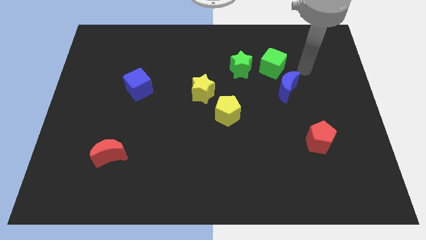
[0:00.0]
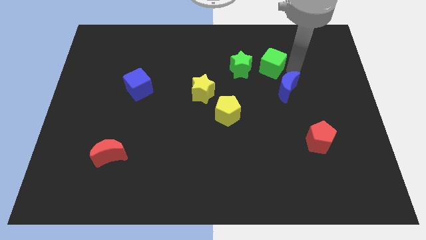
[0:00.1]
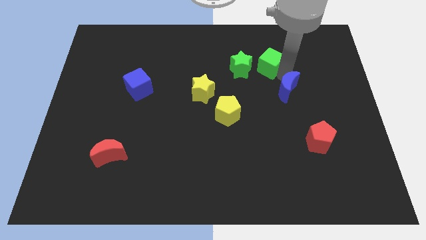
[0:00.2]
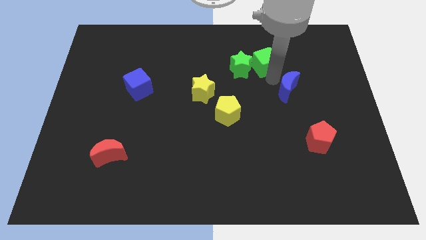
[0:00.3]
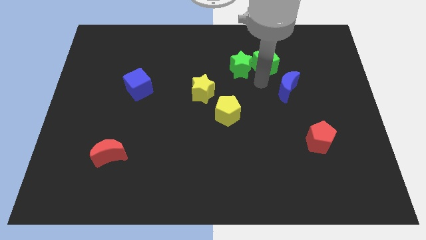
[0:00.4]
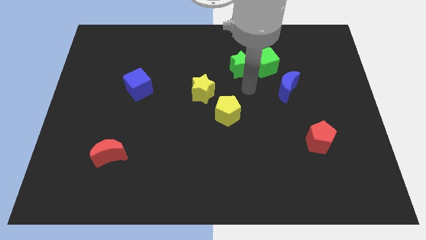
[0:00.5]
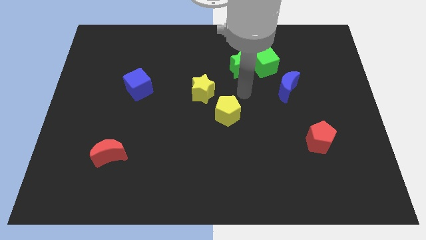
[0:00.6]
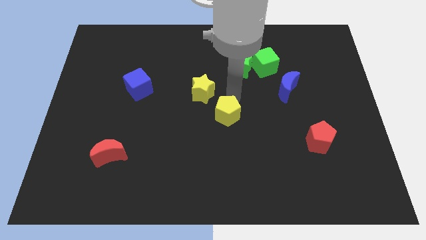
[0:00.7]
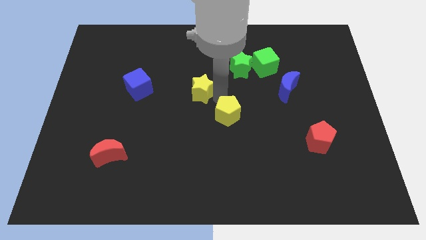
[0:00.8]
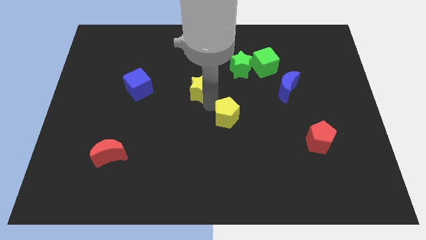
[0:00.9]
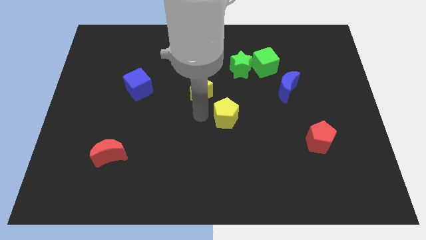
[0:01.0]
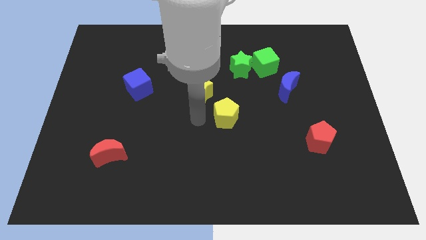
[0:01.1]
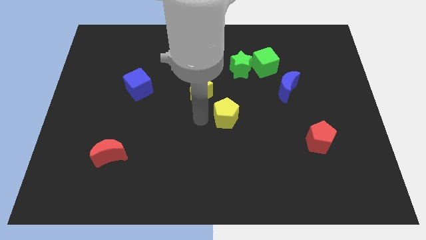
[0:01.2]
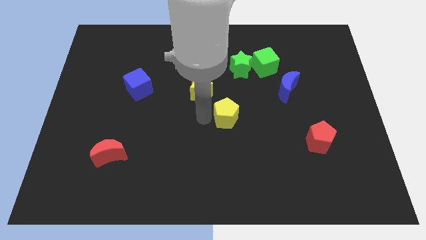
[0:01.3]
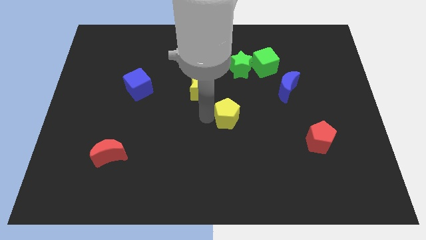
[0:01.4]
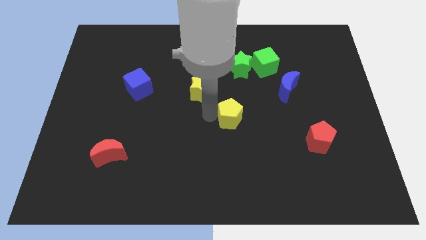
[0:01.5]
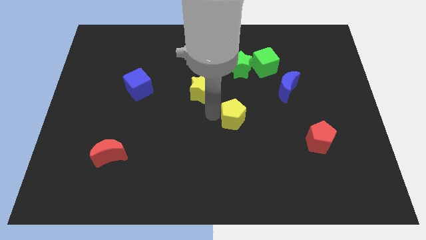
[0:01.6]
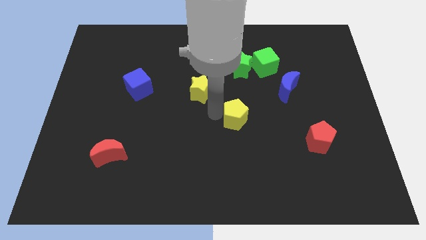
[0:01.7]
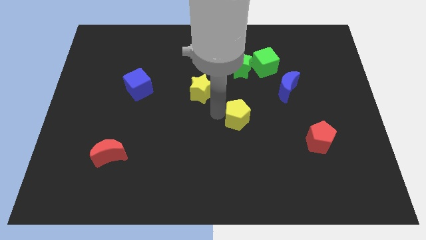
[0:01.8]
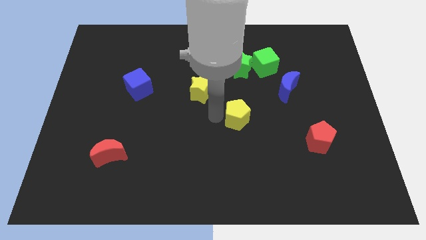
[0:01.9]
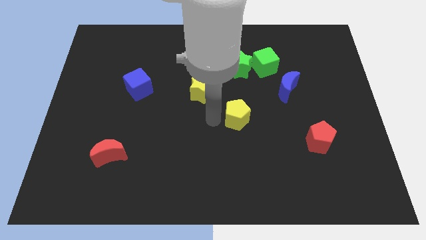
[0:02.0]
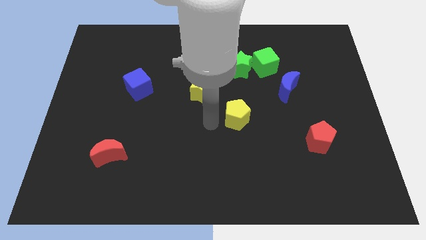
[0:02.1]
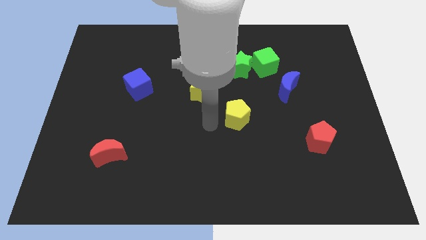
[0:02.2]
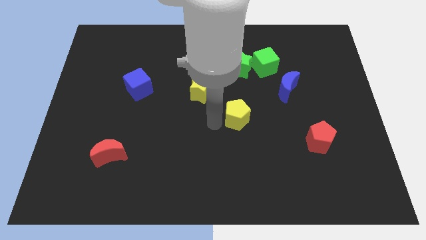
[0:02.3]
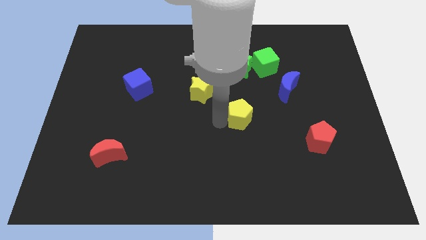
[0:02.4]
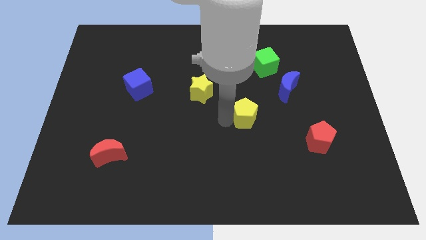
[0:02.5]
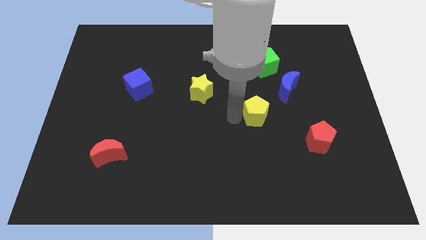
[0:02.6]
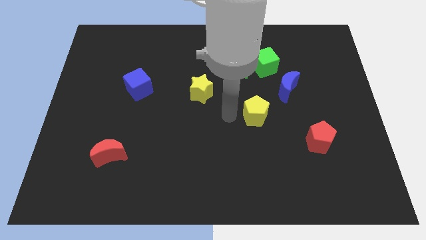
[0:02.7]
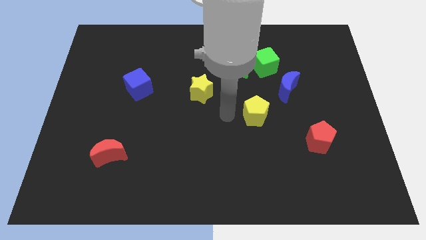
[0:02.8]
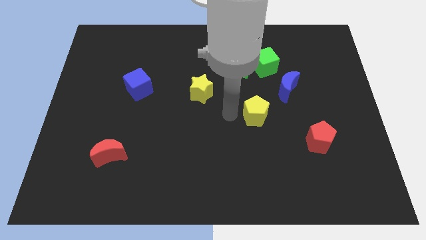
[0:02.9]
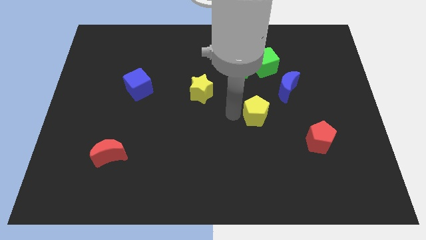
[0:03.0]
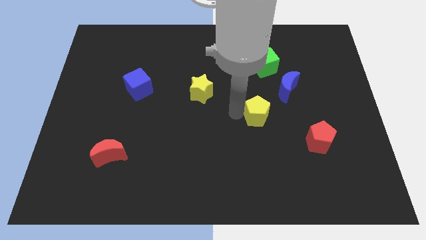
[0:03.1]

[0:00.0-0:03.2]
slightly move the yellow pentagon to the right

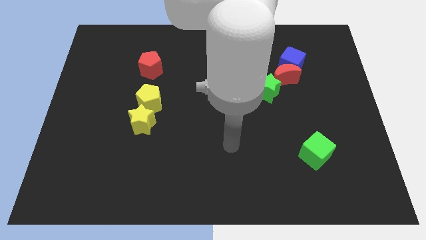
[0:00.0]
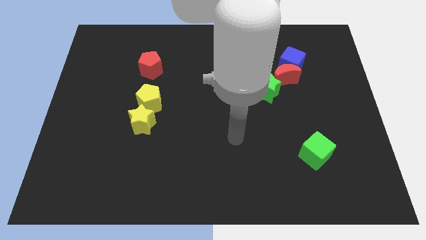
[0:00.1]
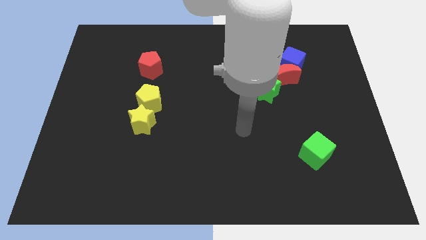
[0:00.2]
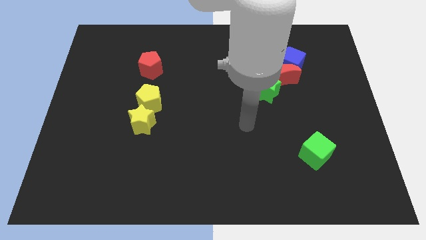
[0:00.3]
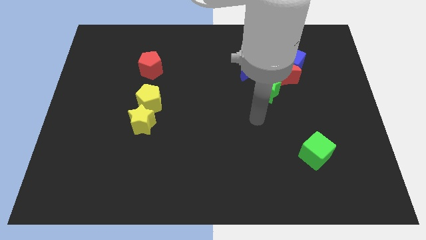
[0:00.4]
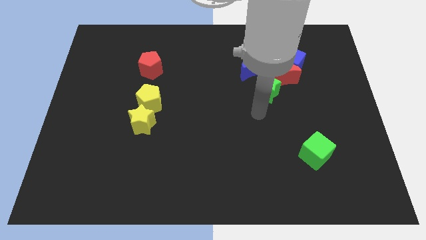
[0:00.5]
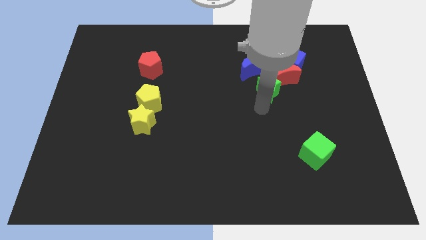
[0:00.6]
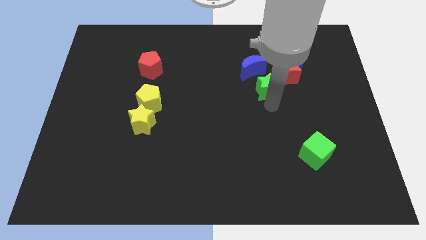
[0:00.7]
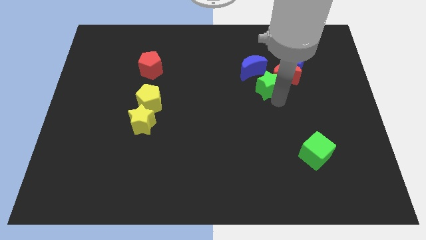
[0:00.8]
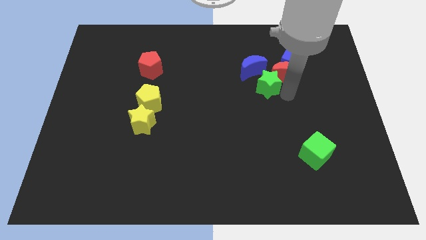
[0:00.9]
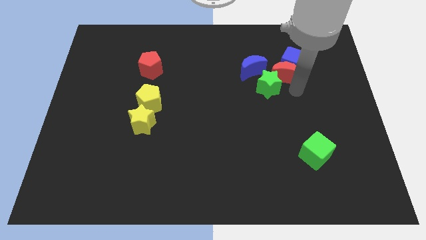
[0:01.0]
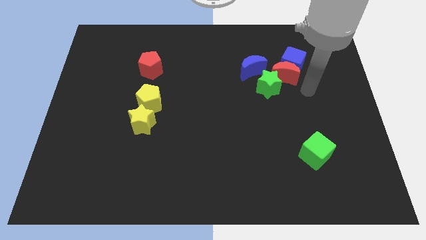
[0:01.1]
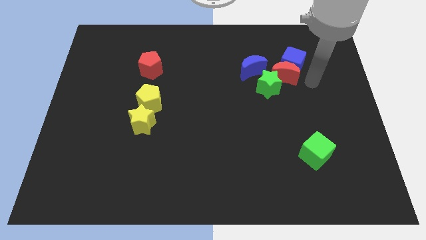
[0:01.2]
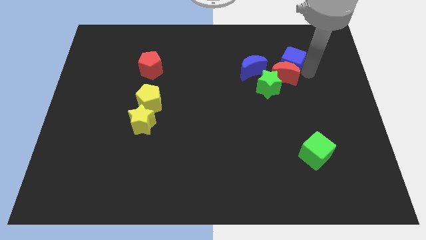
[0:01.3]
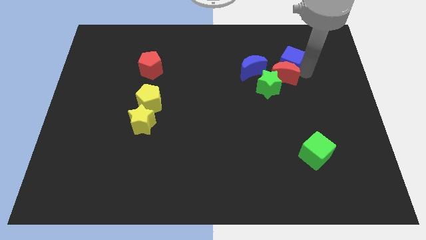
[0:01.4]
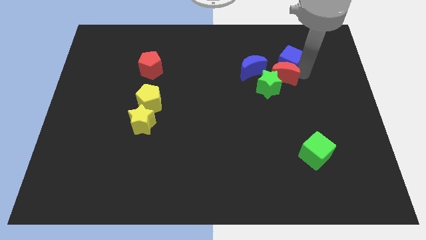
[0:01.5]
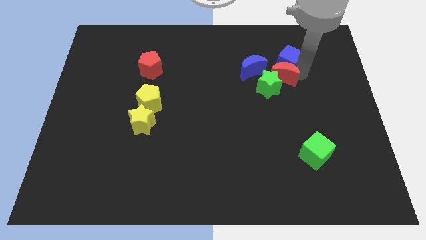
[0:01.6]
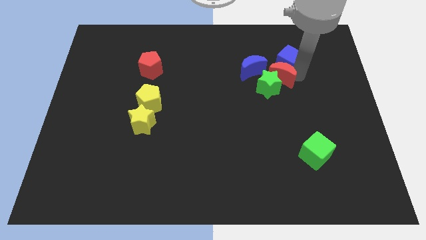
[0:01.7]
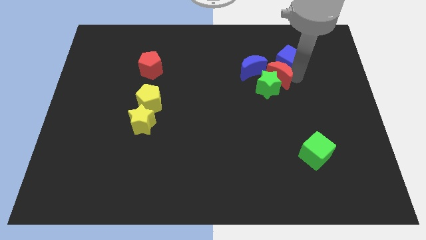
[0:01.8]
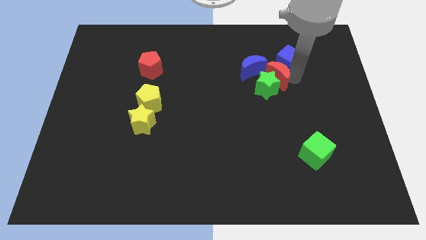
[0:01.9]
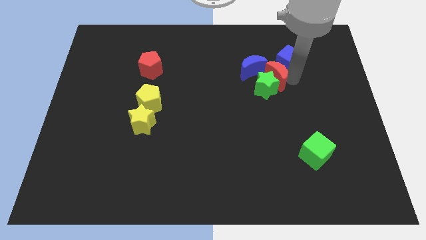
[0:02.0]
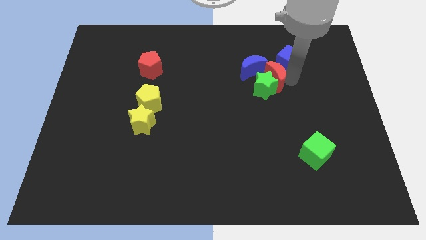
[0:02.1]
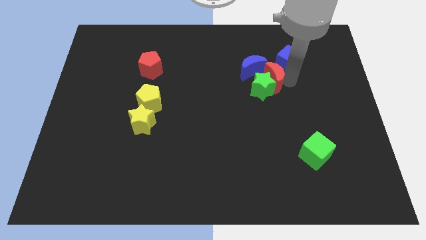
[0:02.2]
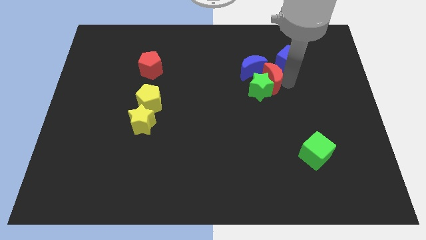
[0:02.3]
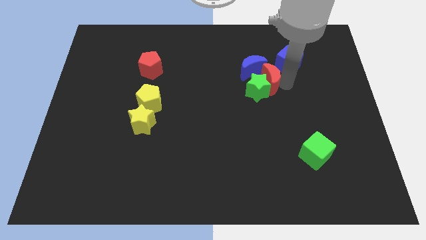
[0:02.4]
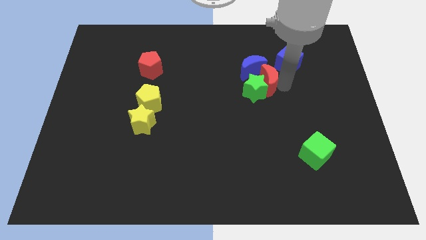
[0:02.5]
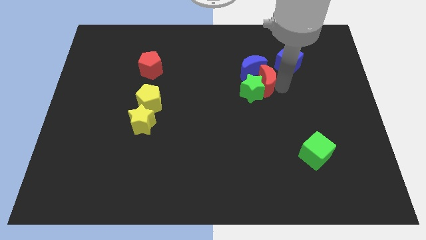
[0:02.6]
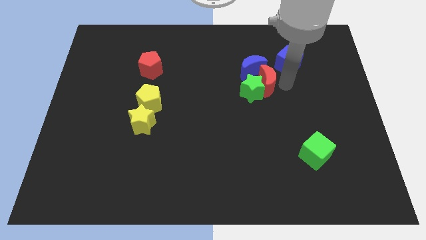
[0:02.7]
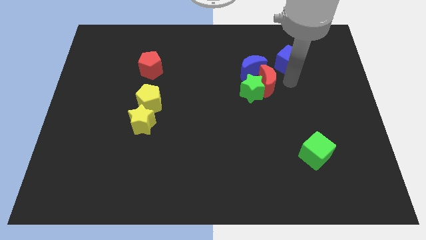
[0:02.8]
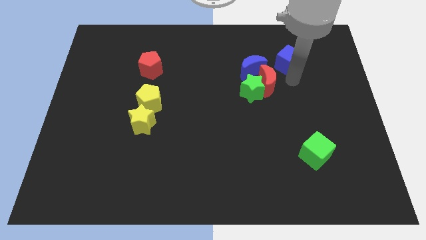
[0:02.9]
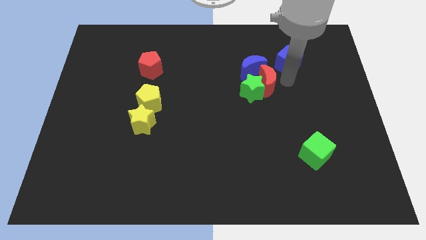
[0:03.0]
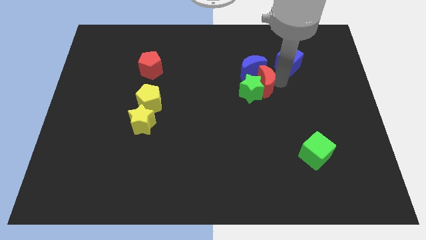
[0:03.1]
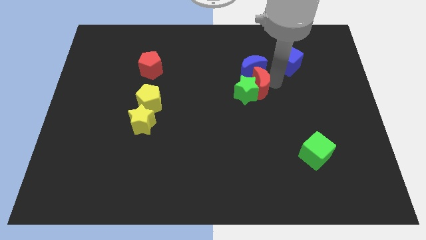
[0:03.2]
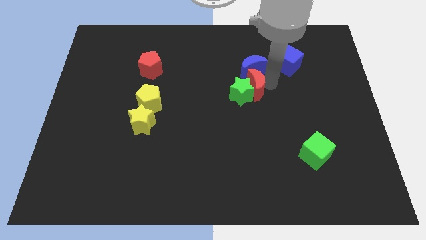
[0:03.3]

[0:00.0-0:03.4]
slightly slide the red moon left

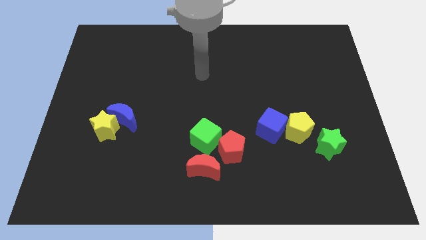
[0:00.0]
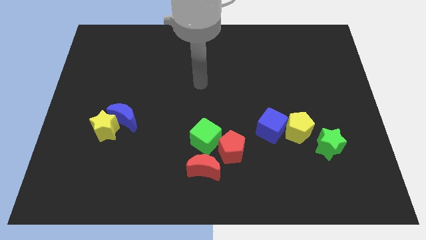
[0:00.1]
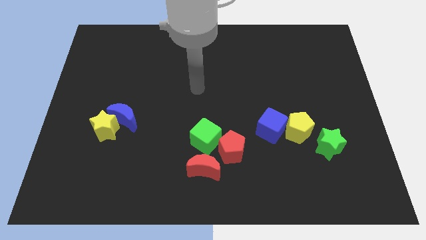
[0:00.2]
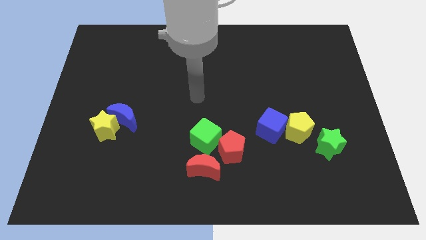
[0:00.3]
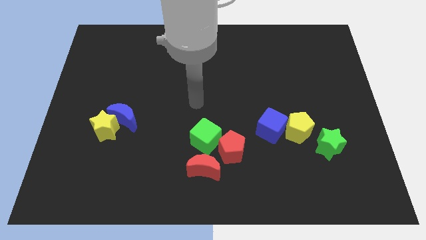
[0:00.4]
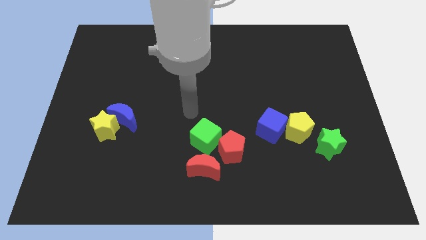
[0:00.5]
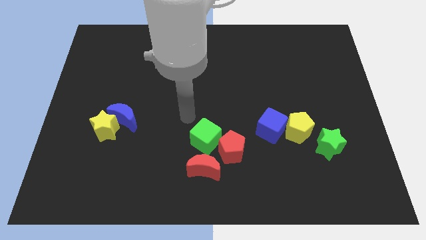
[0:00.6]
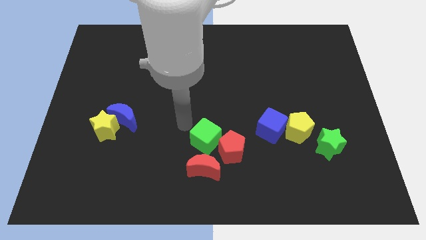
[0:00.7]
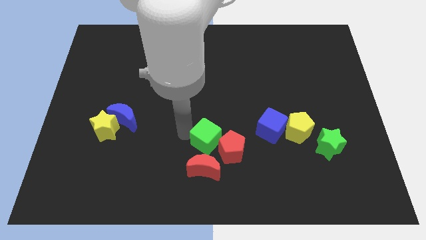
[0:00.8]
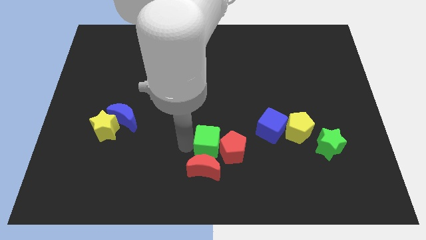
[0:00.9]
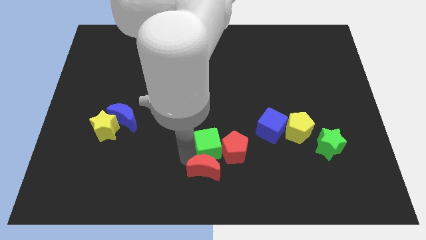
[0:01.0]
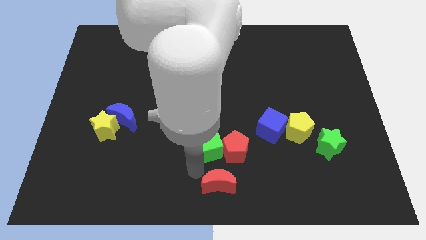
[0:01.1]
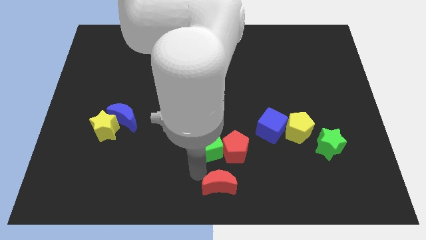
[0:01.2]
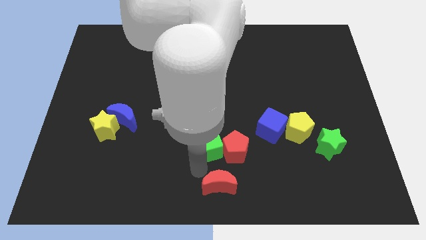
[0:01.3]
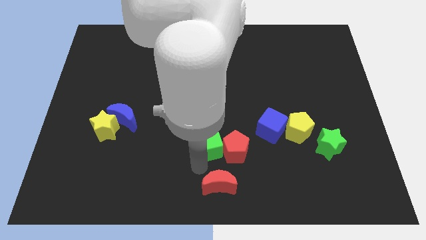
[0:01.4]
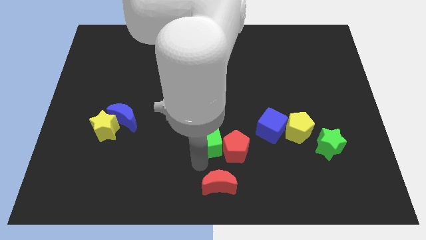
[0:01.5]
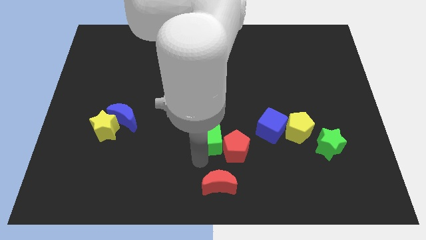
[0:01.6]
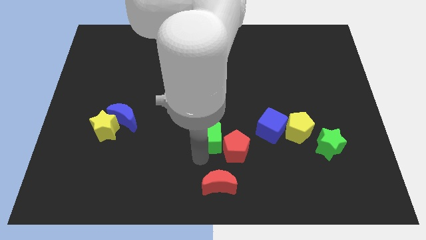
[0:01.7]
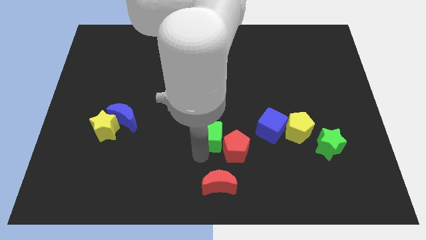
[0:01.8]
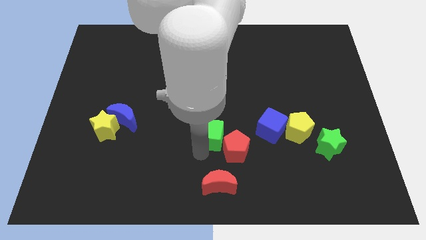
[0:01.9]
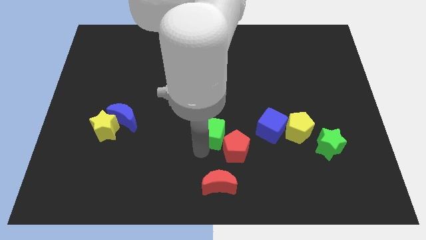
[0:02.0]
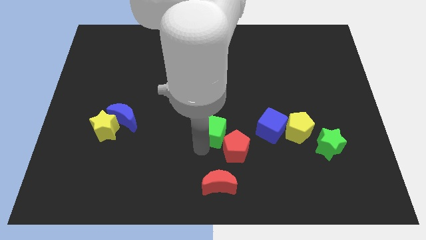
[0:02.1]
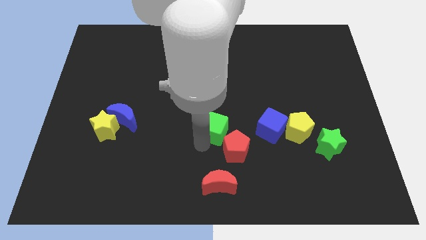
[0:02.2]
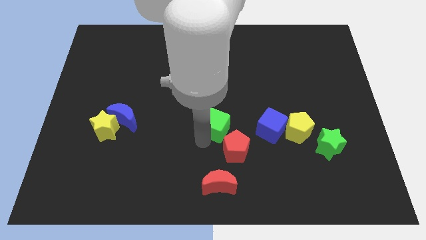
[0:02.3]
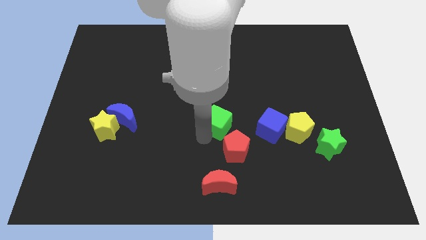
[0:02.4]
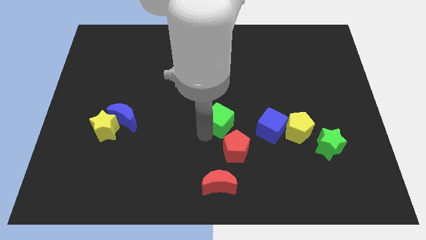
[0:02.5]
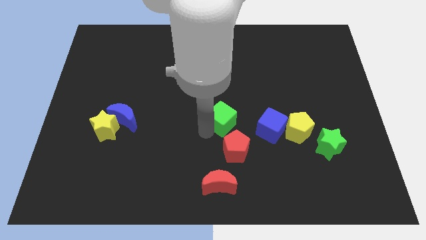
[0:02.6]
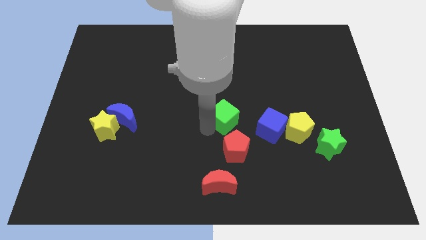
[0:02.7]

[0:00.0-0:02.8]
slide the green cube upwards and right somewhat
